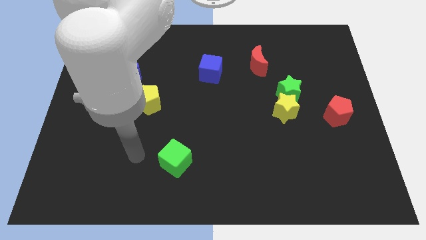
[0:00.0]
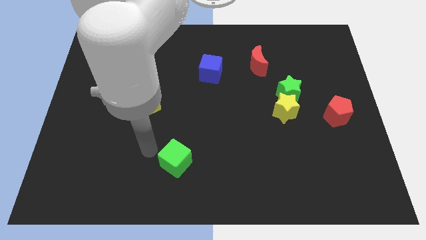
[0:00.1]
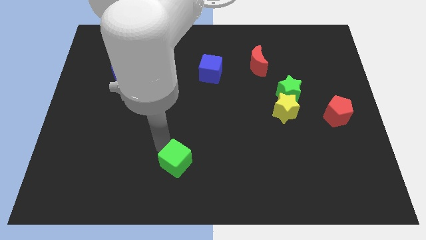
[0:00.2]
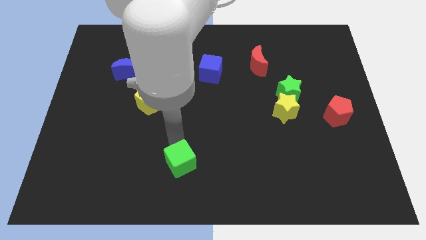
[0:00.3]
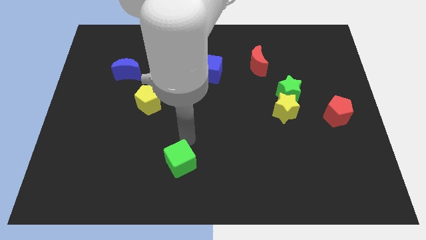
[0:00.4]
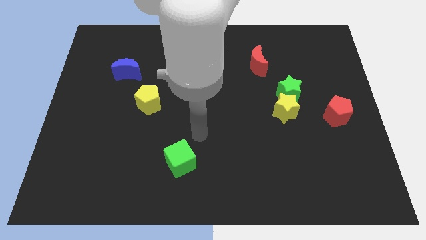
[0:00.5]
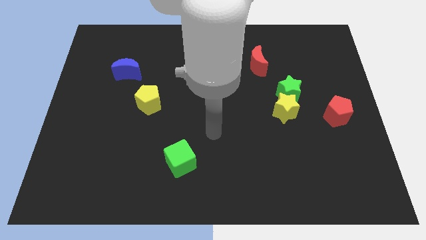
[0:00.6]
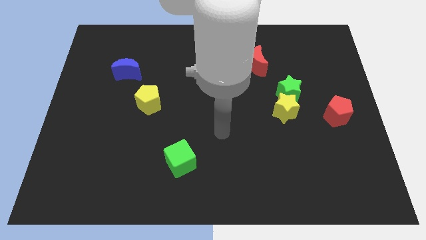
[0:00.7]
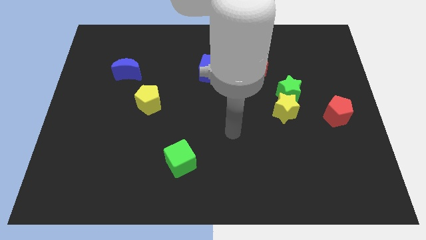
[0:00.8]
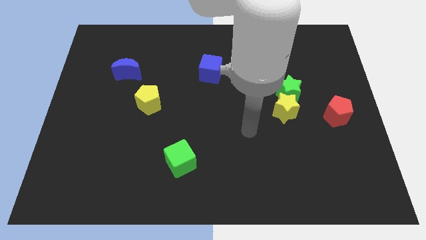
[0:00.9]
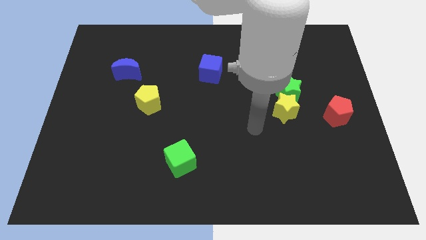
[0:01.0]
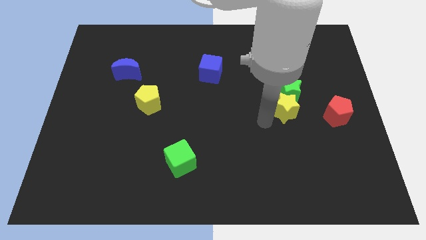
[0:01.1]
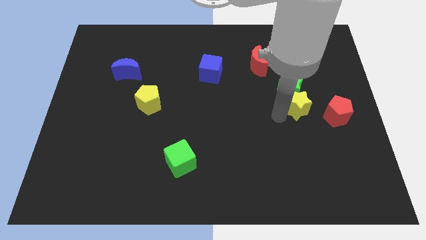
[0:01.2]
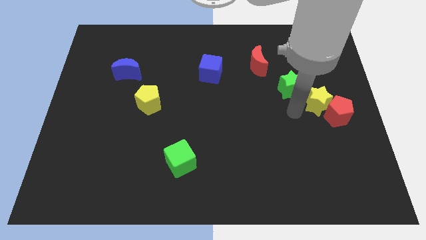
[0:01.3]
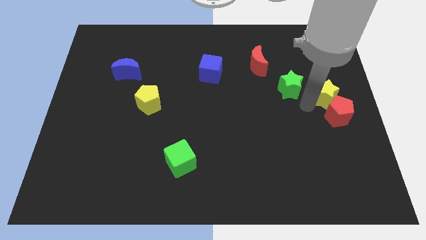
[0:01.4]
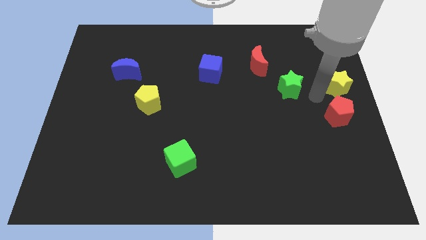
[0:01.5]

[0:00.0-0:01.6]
separate the green star from the yellow star

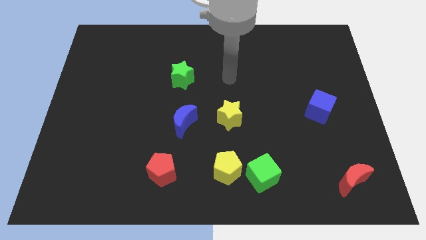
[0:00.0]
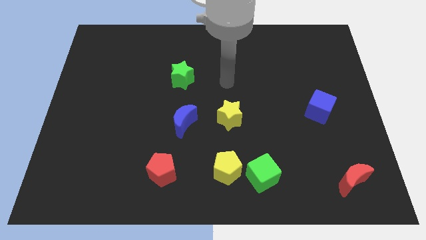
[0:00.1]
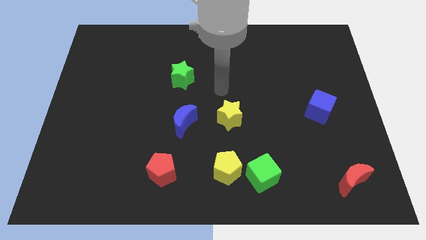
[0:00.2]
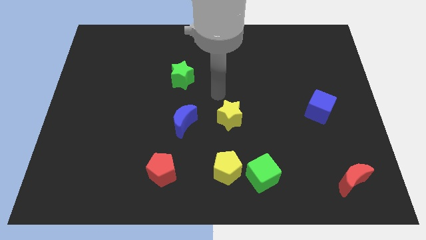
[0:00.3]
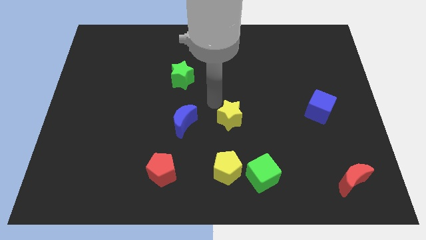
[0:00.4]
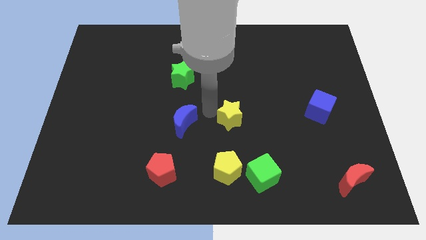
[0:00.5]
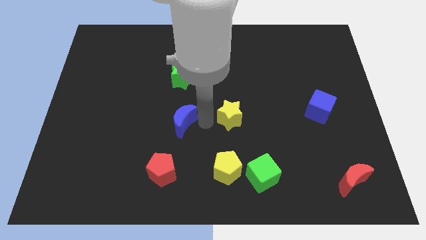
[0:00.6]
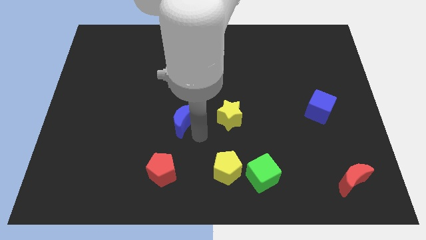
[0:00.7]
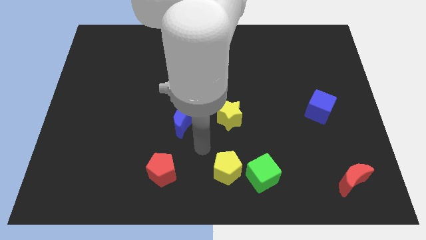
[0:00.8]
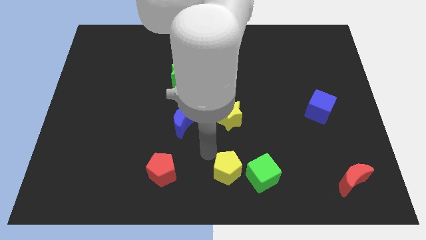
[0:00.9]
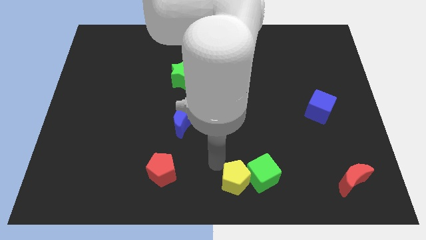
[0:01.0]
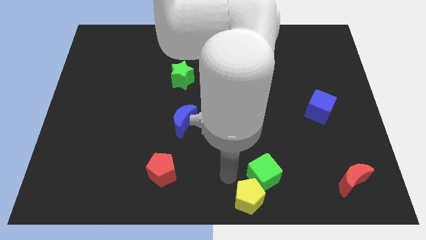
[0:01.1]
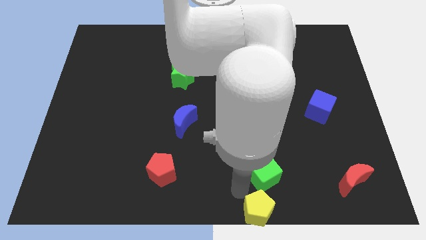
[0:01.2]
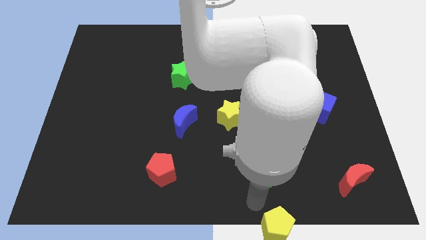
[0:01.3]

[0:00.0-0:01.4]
separate the green cube from the yellow pentagon

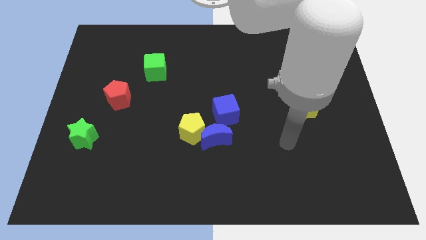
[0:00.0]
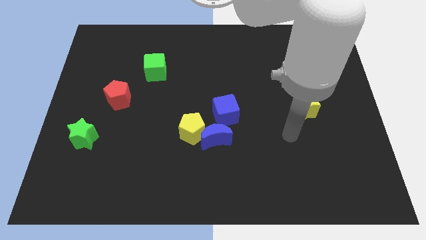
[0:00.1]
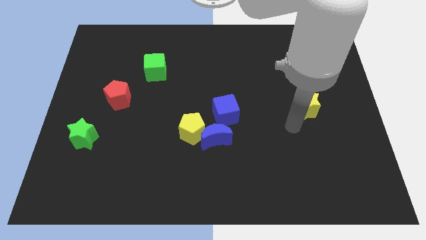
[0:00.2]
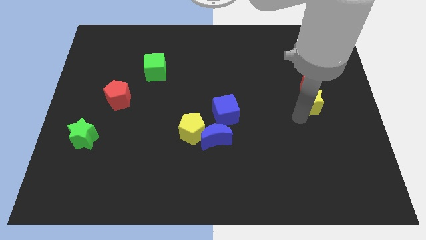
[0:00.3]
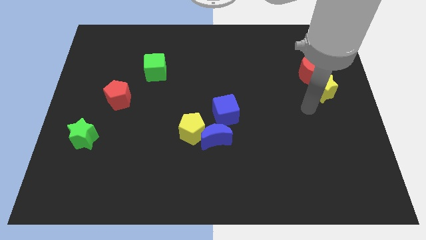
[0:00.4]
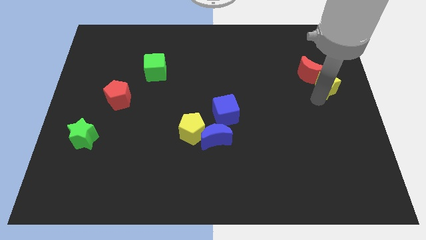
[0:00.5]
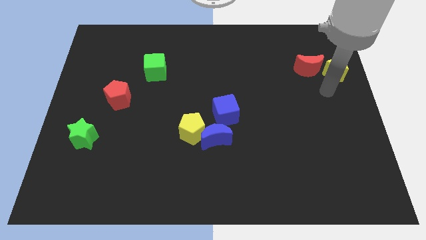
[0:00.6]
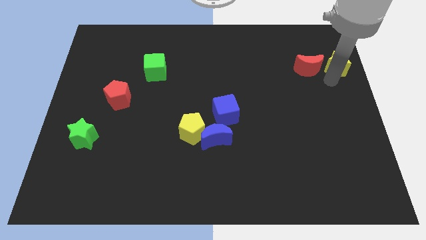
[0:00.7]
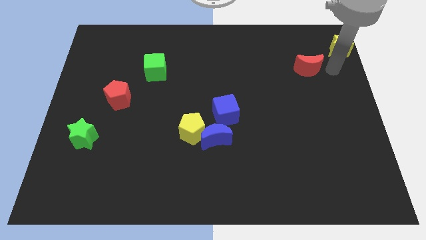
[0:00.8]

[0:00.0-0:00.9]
move the red moon away from the yellow star

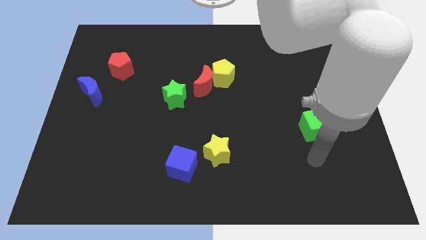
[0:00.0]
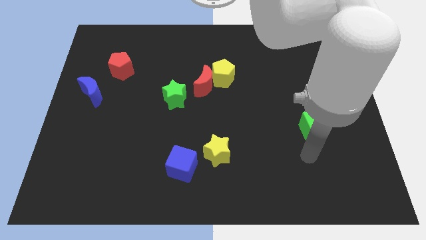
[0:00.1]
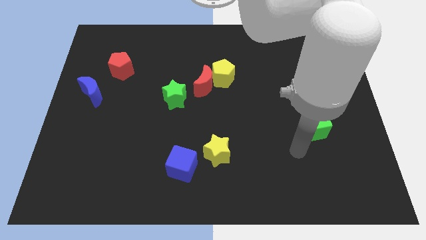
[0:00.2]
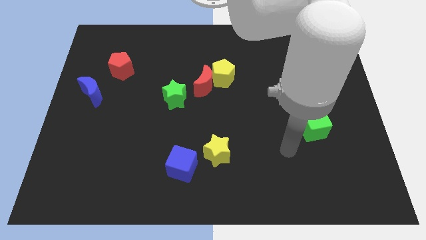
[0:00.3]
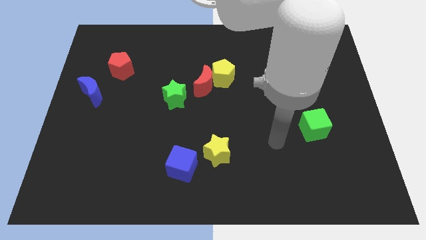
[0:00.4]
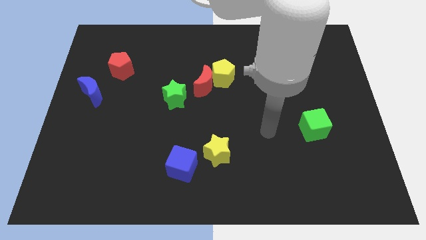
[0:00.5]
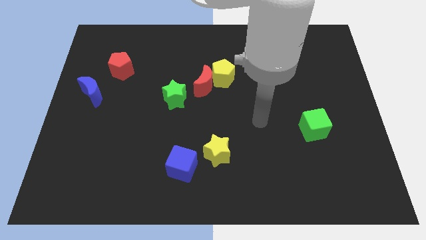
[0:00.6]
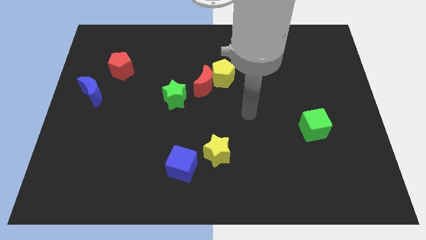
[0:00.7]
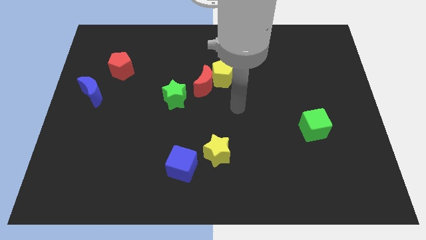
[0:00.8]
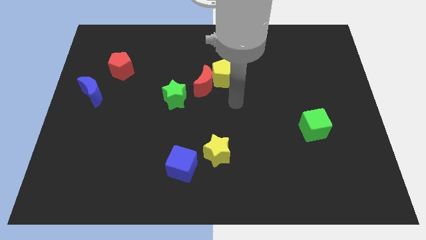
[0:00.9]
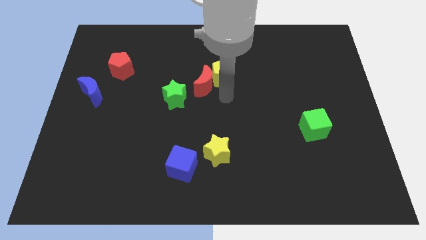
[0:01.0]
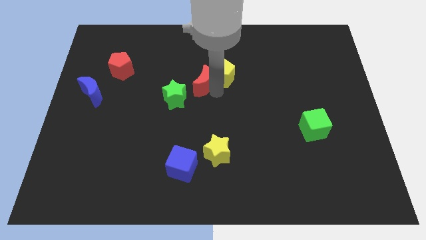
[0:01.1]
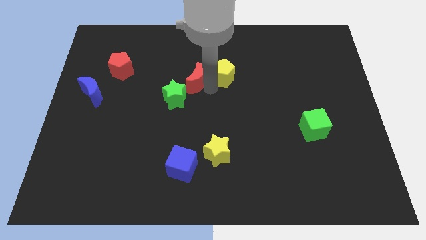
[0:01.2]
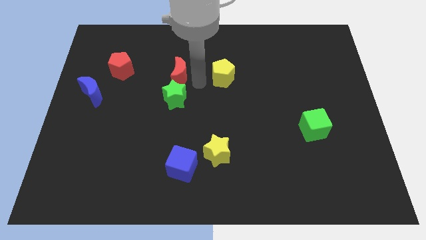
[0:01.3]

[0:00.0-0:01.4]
separate the yellow pentagon from the red moon

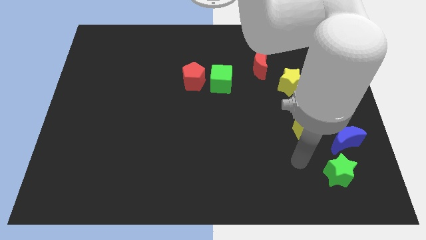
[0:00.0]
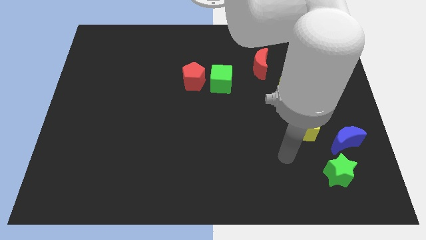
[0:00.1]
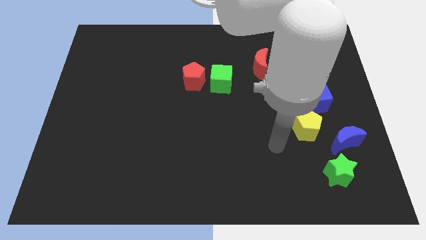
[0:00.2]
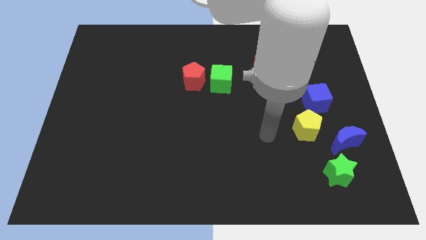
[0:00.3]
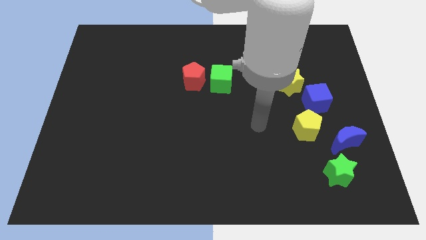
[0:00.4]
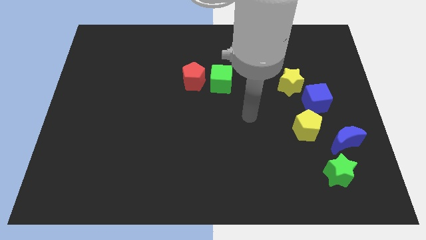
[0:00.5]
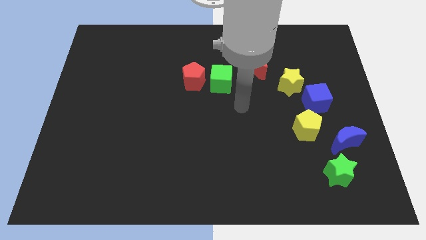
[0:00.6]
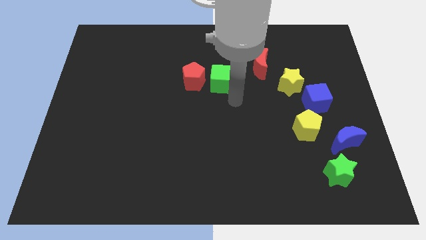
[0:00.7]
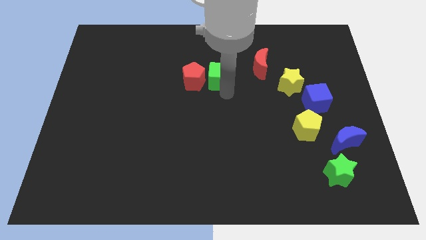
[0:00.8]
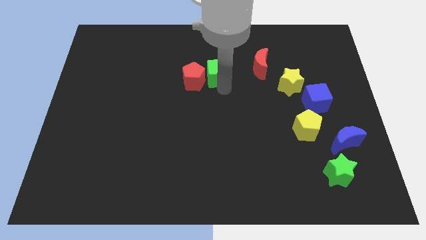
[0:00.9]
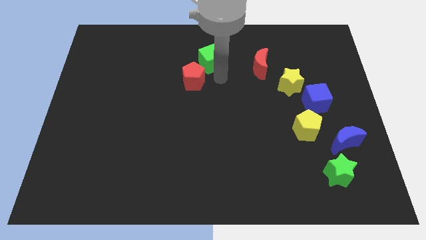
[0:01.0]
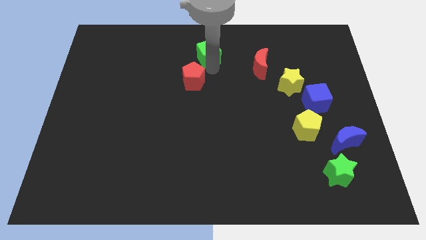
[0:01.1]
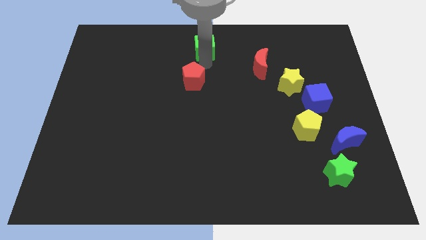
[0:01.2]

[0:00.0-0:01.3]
pull the red pentagon apart from the green cube

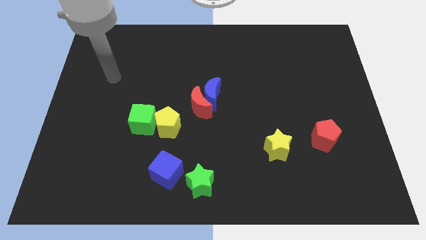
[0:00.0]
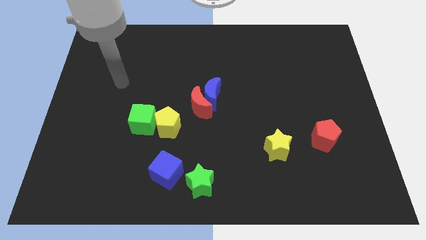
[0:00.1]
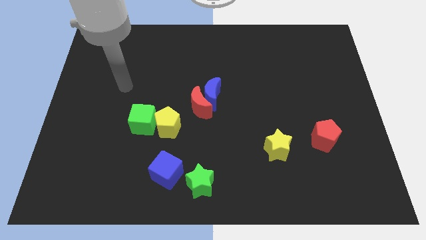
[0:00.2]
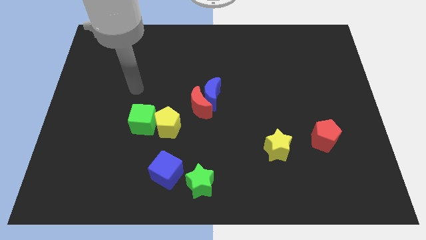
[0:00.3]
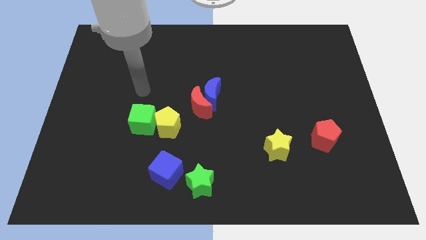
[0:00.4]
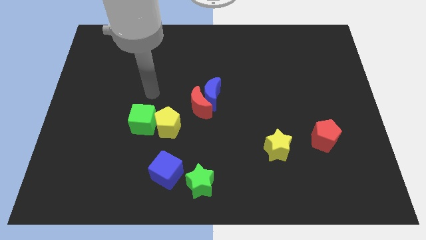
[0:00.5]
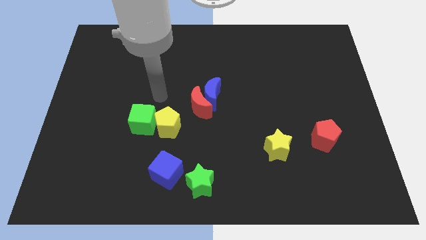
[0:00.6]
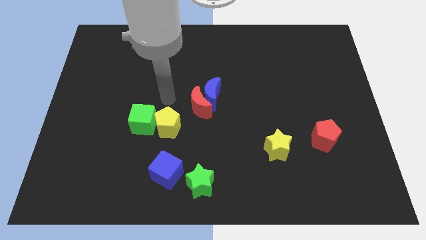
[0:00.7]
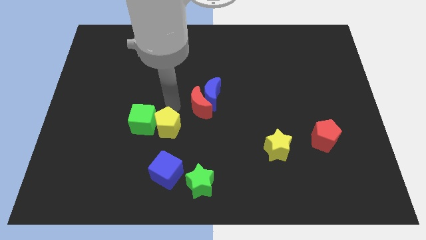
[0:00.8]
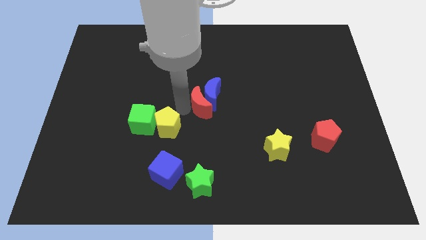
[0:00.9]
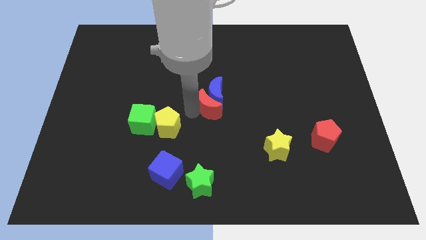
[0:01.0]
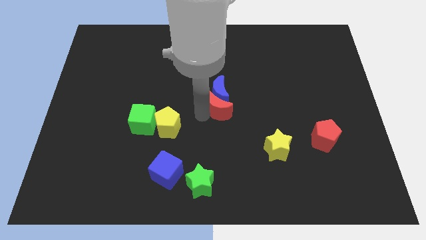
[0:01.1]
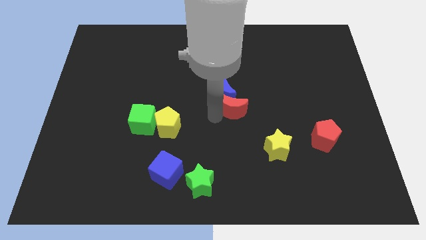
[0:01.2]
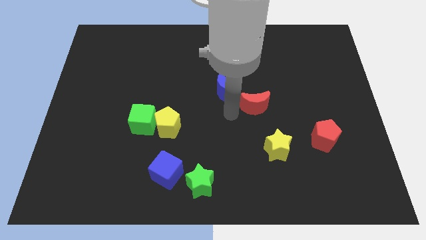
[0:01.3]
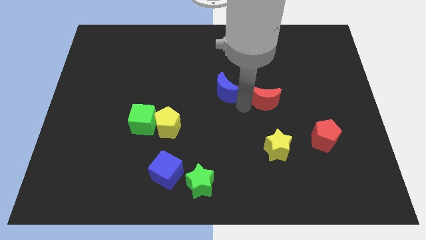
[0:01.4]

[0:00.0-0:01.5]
separate the blue moon from the red moon

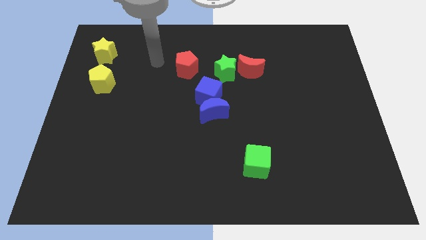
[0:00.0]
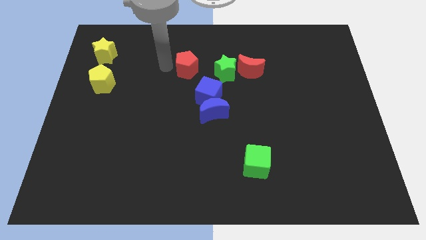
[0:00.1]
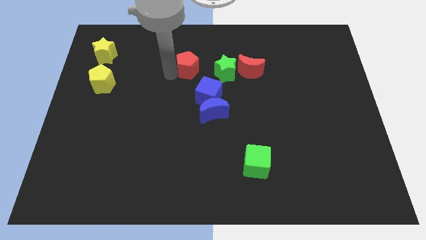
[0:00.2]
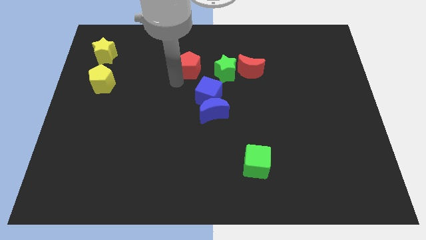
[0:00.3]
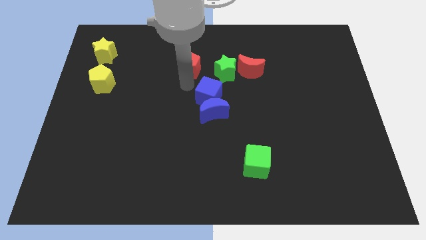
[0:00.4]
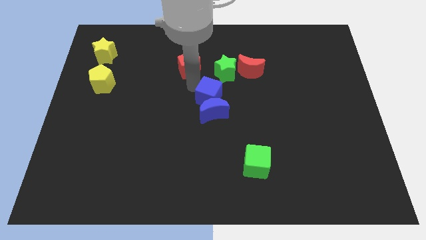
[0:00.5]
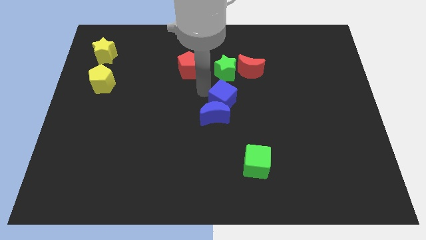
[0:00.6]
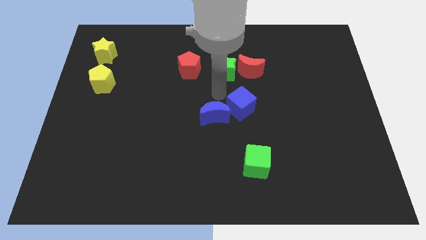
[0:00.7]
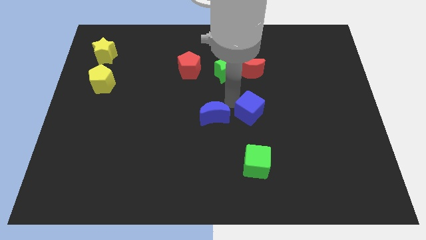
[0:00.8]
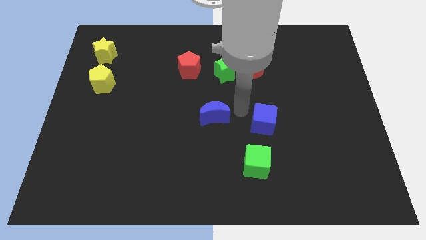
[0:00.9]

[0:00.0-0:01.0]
move the blue moon away from the blue cube

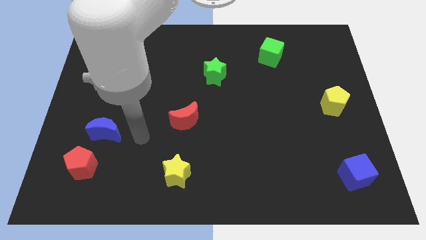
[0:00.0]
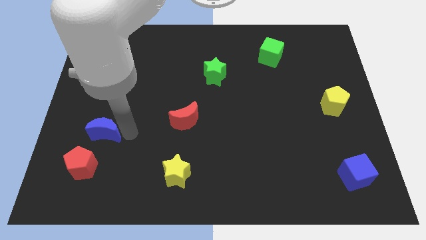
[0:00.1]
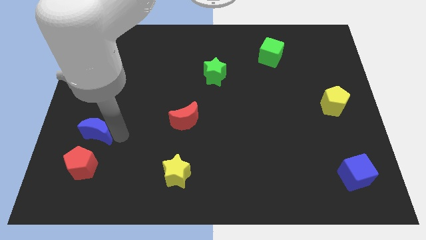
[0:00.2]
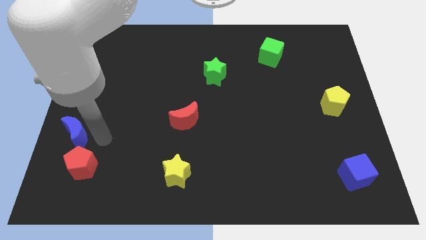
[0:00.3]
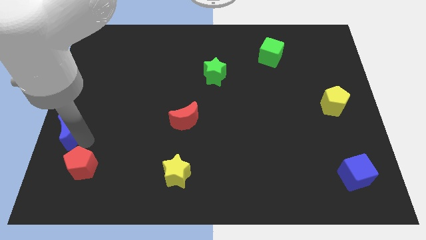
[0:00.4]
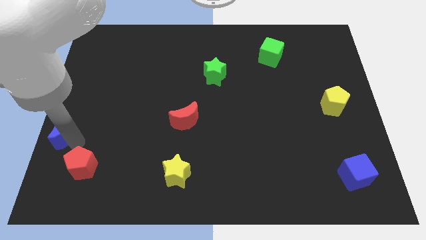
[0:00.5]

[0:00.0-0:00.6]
move the red pentagon away from the blue moon
